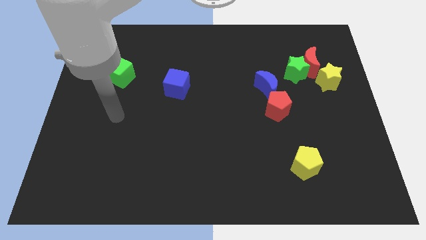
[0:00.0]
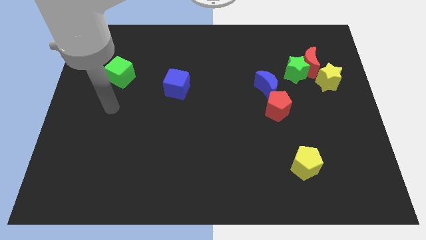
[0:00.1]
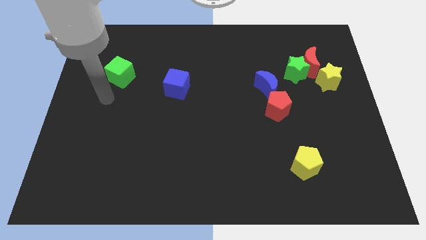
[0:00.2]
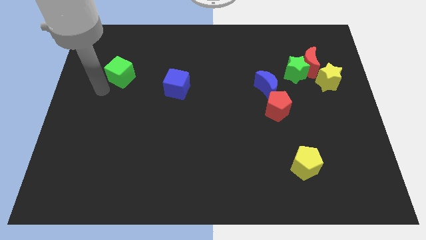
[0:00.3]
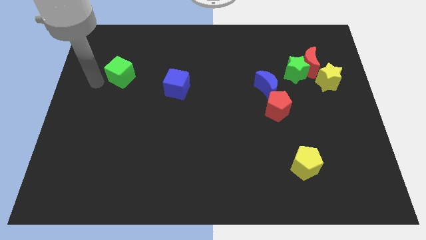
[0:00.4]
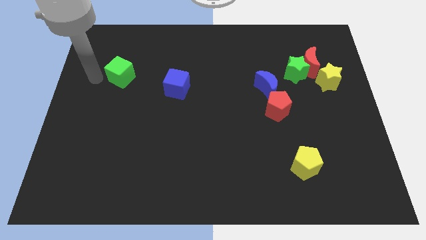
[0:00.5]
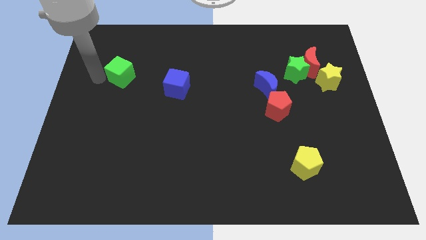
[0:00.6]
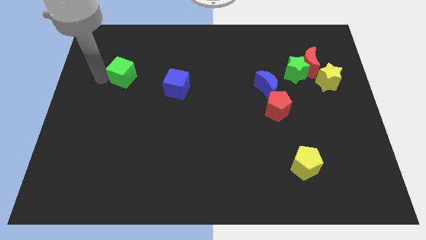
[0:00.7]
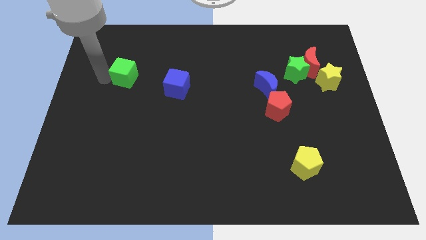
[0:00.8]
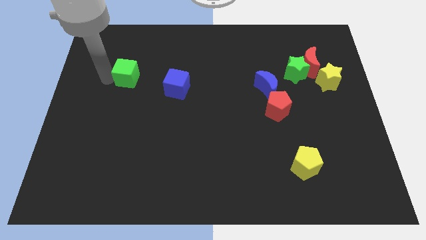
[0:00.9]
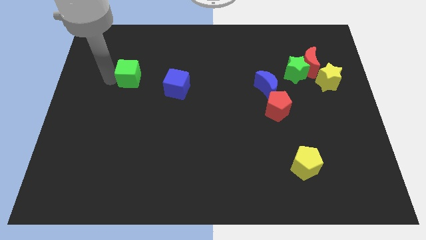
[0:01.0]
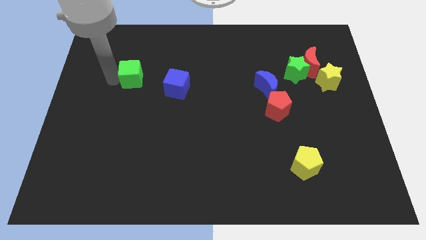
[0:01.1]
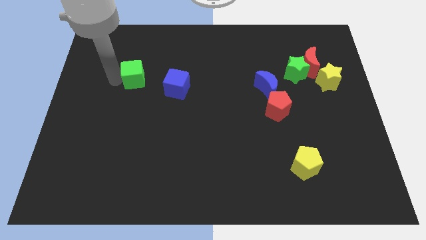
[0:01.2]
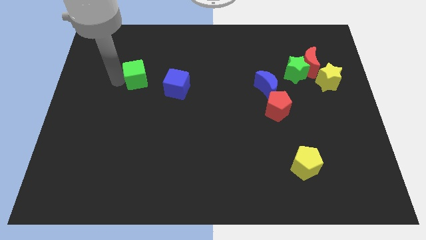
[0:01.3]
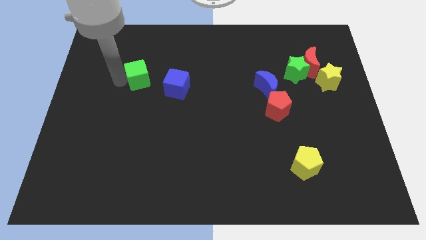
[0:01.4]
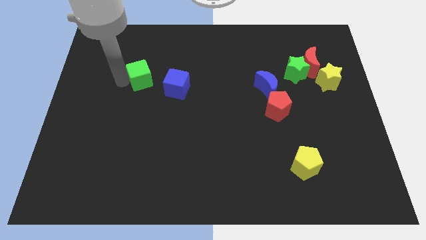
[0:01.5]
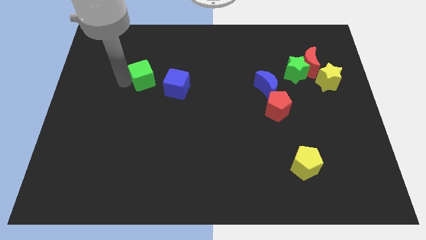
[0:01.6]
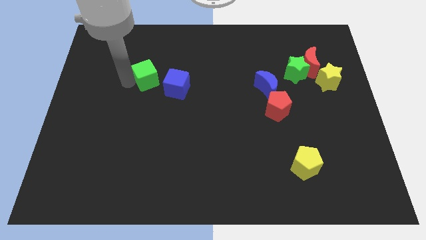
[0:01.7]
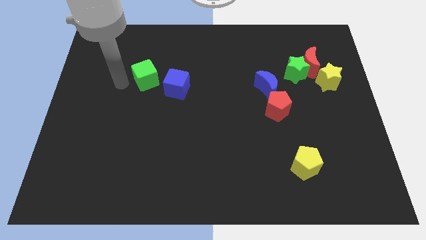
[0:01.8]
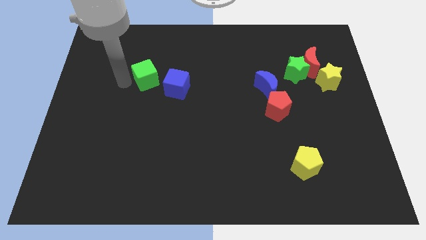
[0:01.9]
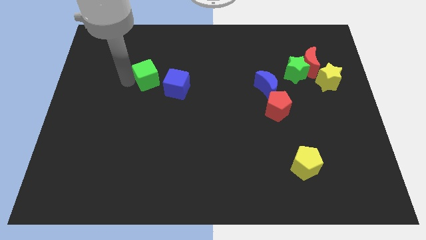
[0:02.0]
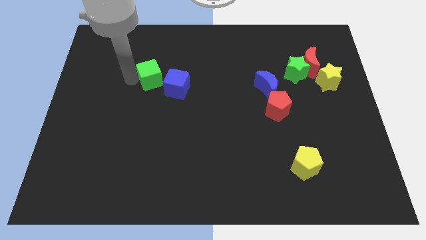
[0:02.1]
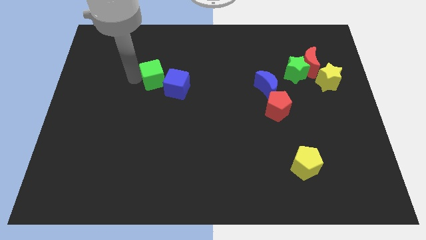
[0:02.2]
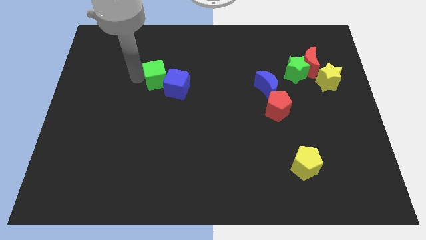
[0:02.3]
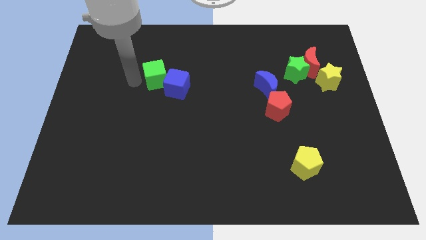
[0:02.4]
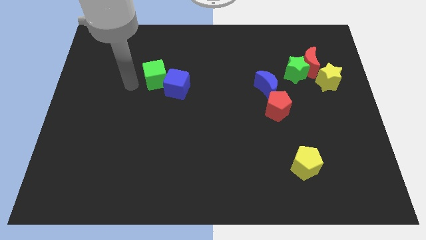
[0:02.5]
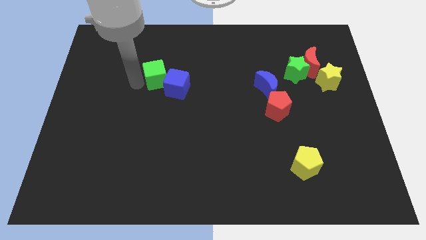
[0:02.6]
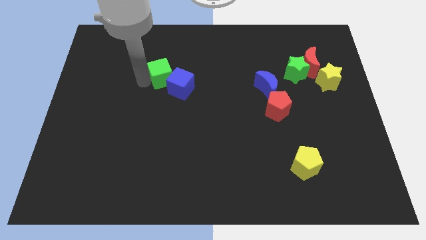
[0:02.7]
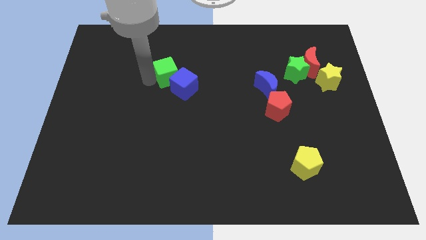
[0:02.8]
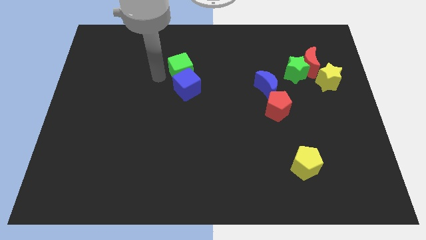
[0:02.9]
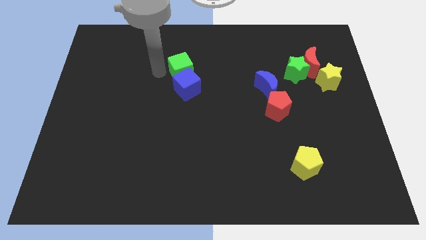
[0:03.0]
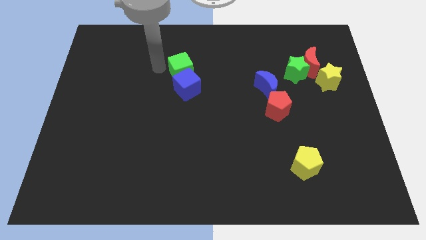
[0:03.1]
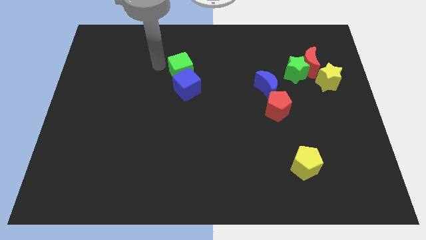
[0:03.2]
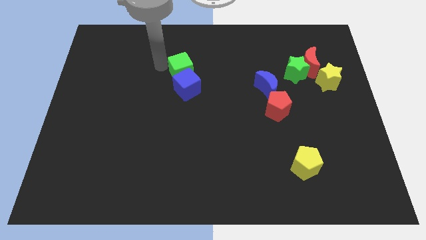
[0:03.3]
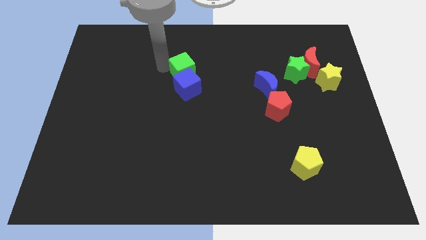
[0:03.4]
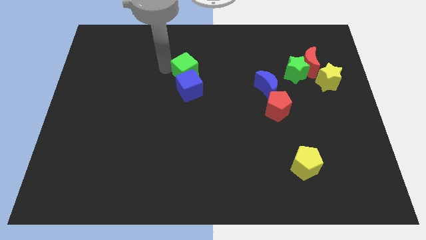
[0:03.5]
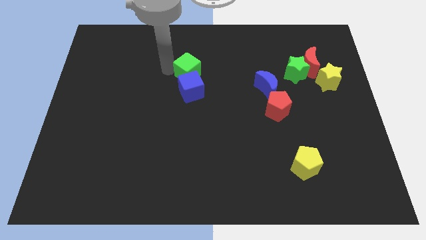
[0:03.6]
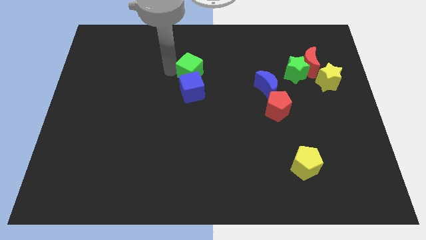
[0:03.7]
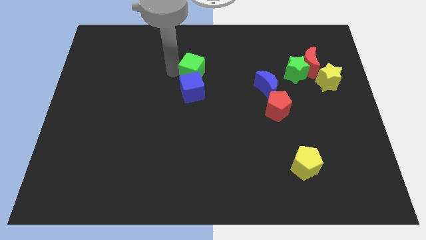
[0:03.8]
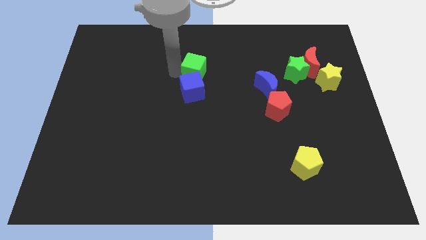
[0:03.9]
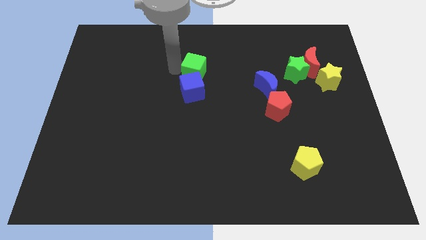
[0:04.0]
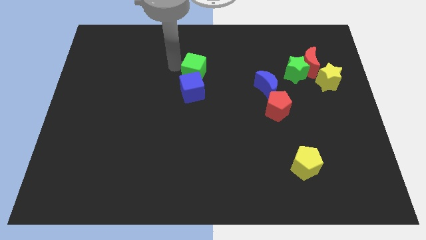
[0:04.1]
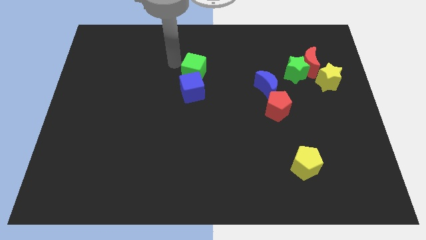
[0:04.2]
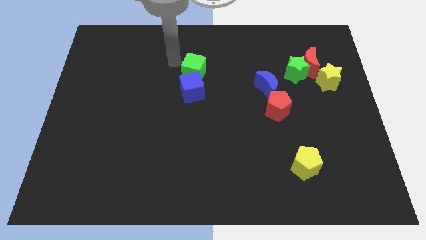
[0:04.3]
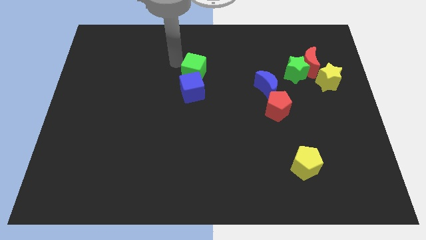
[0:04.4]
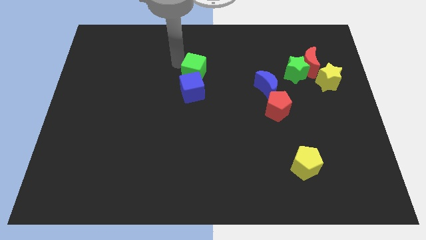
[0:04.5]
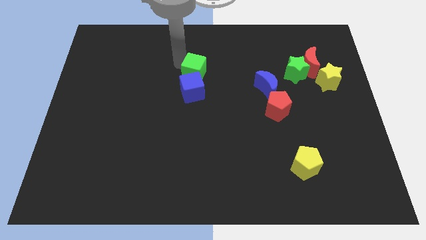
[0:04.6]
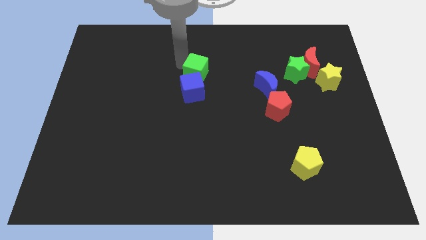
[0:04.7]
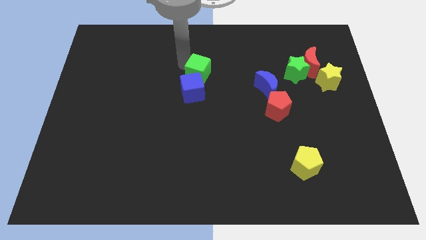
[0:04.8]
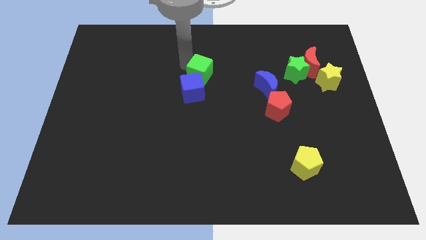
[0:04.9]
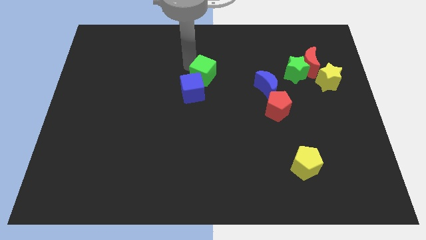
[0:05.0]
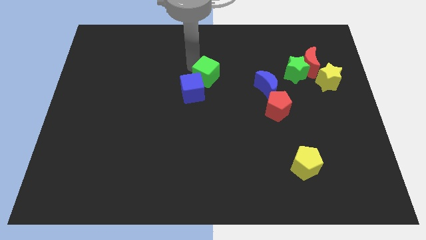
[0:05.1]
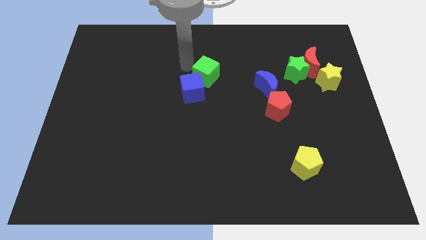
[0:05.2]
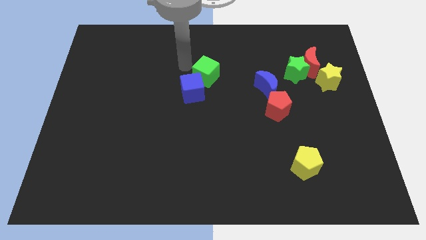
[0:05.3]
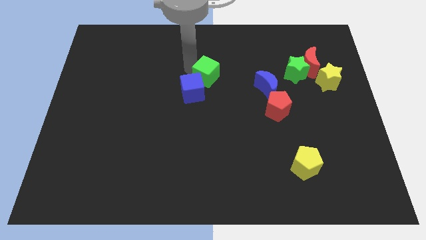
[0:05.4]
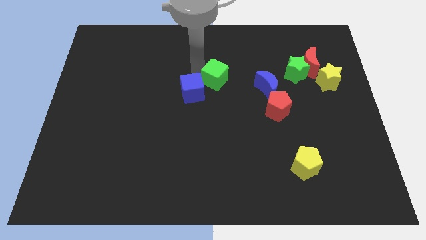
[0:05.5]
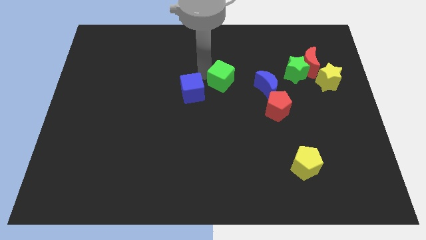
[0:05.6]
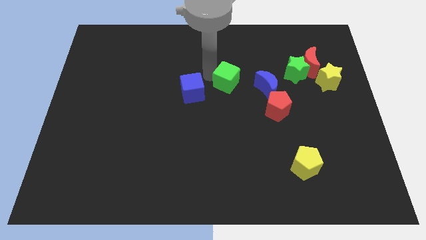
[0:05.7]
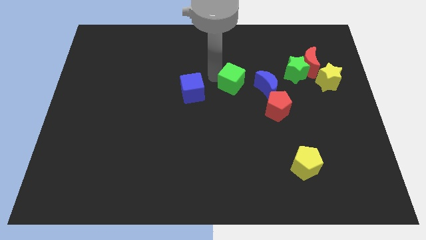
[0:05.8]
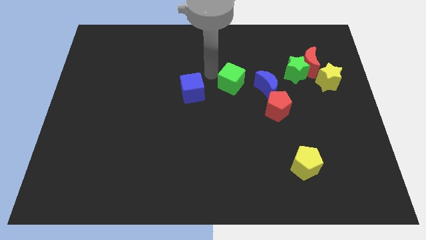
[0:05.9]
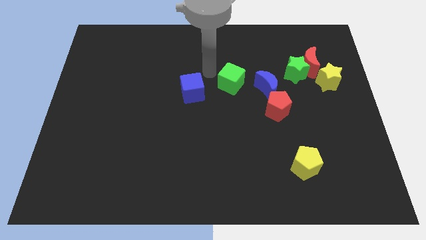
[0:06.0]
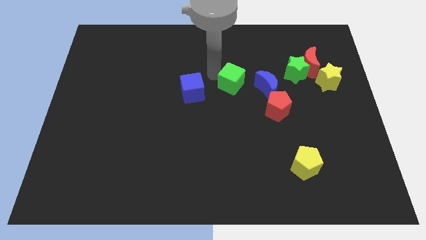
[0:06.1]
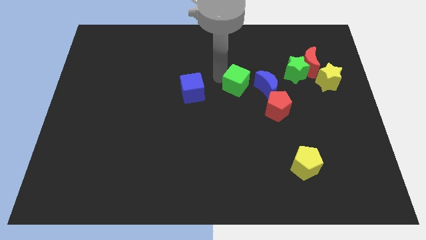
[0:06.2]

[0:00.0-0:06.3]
slide the green cube diagonally up and to the left of the red pentagon
